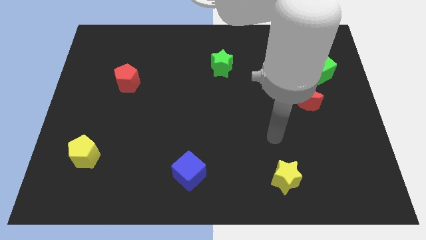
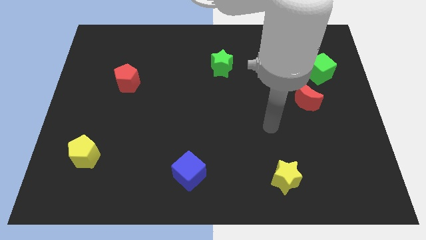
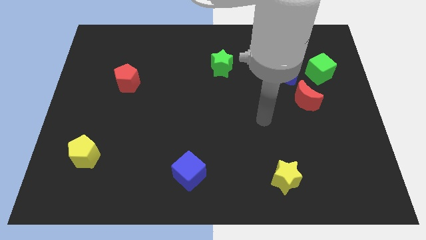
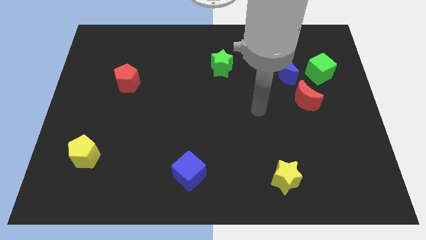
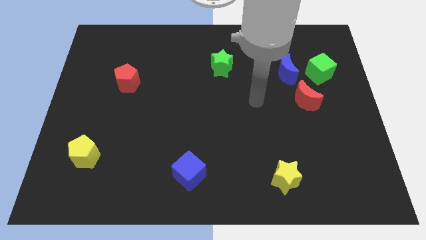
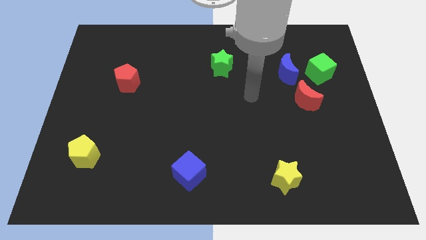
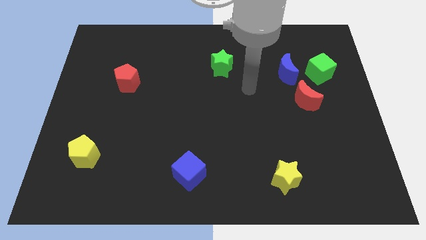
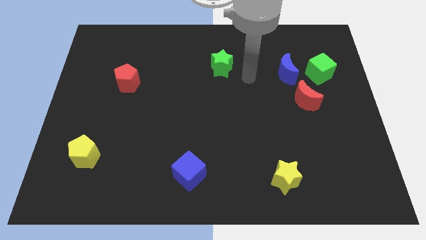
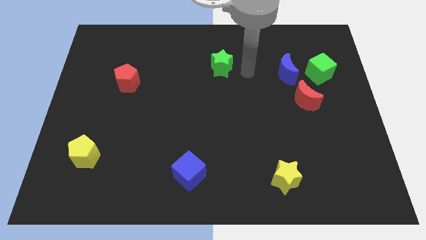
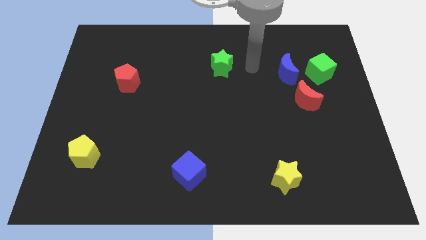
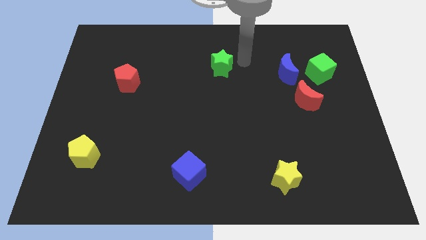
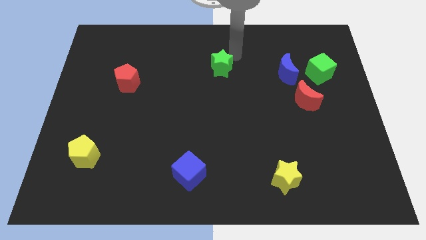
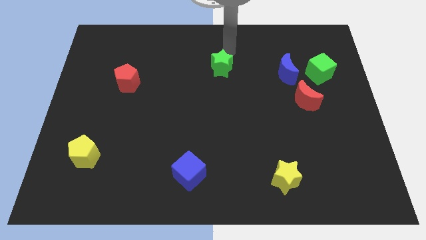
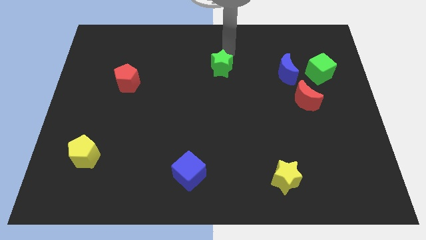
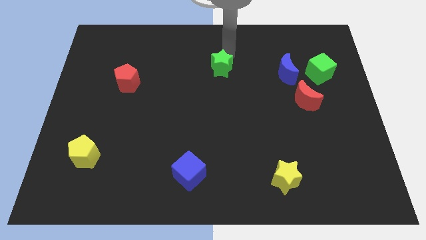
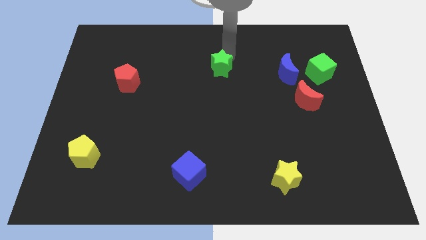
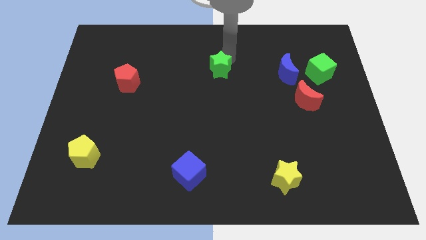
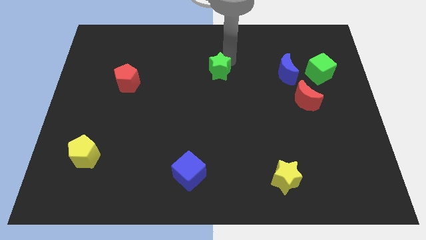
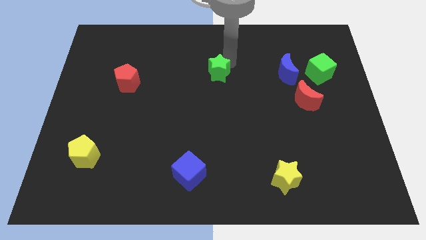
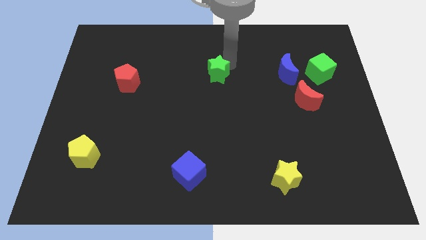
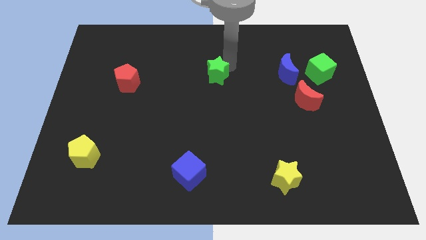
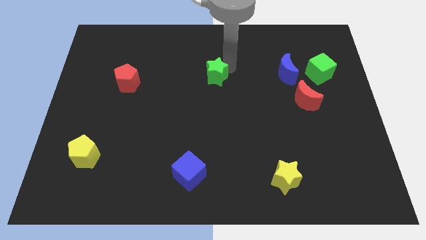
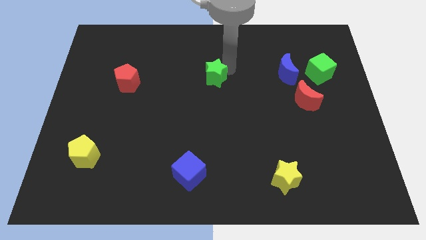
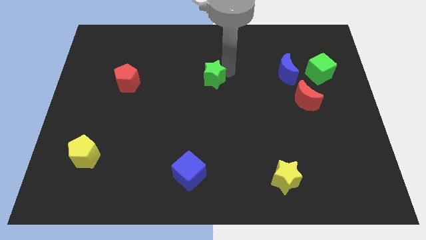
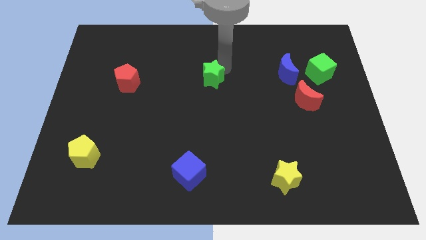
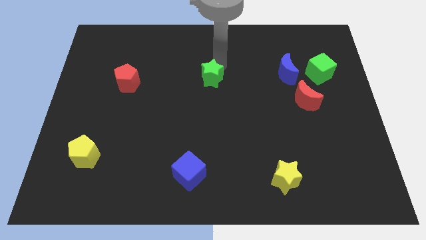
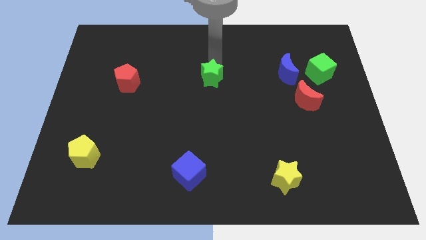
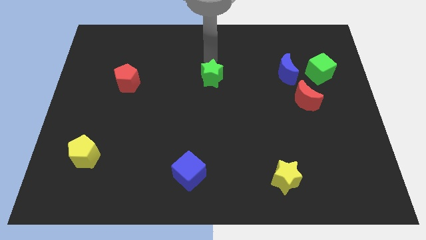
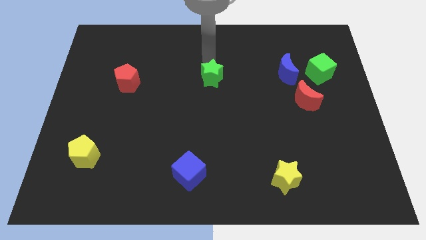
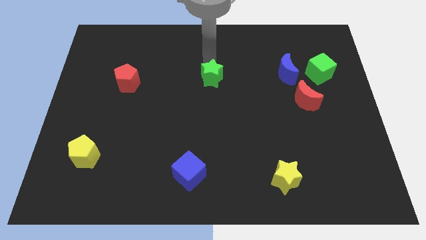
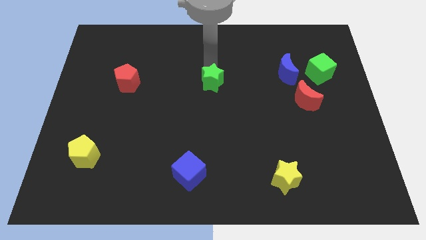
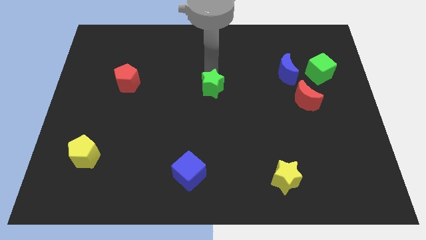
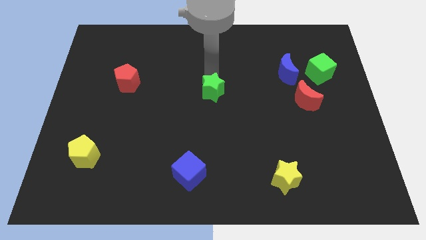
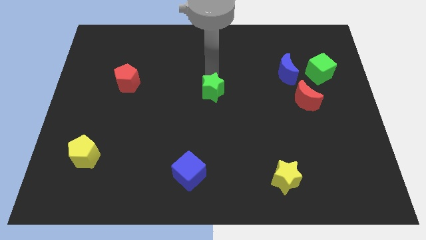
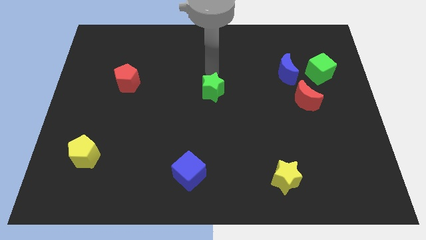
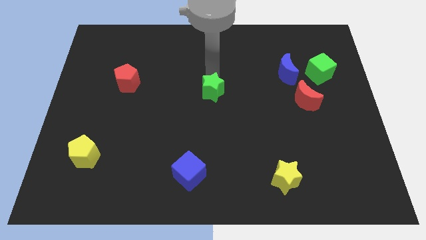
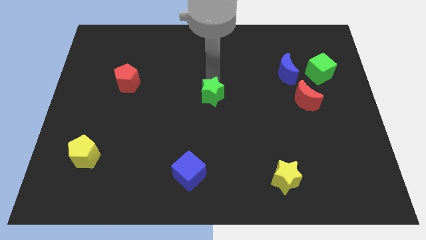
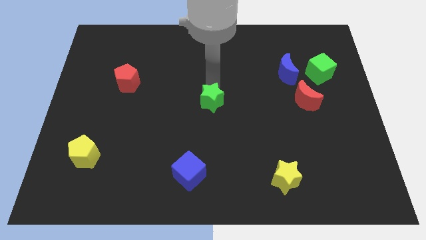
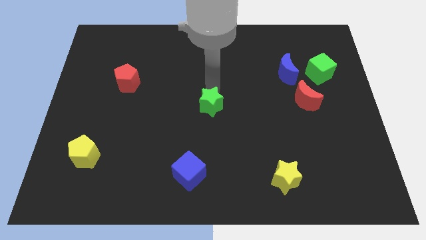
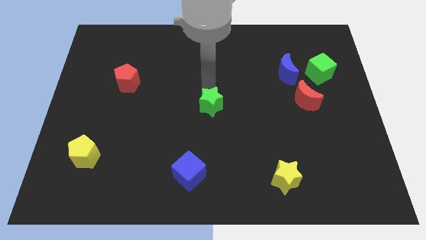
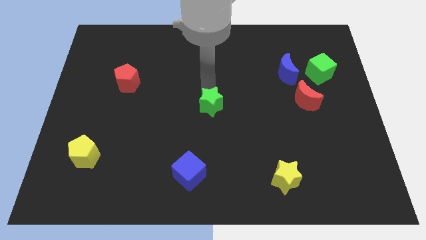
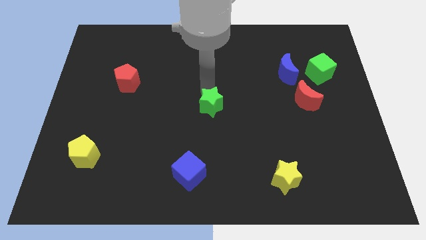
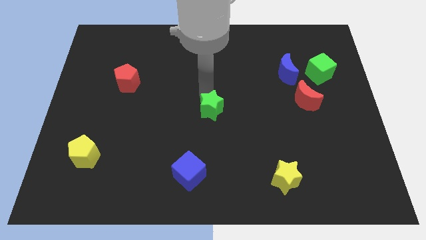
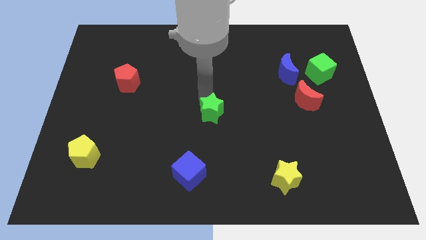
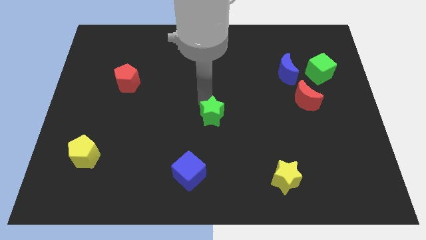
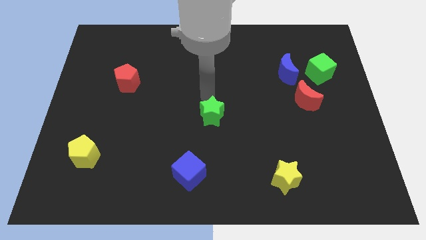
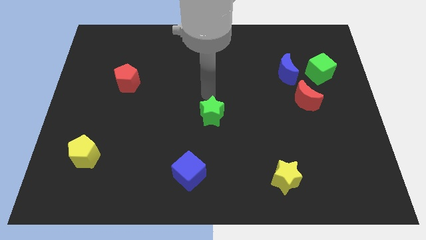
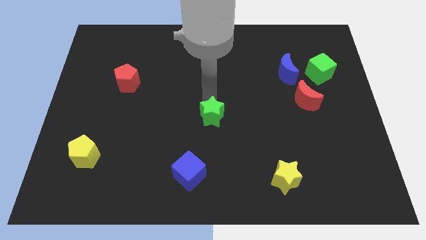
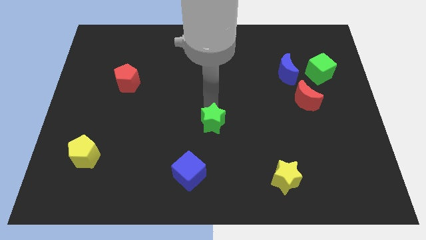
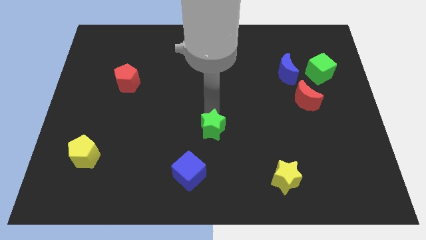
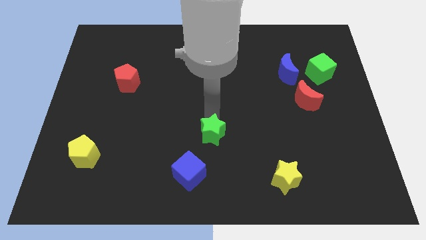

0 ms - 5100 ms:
slide the green star downwards

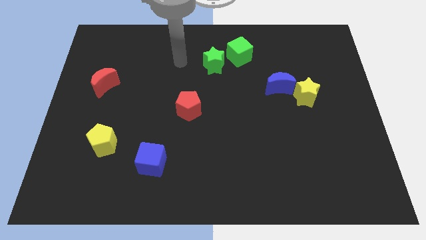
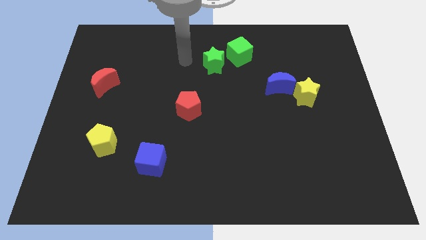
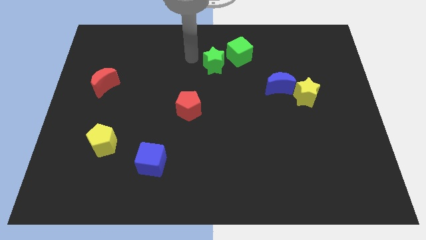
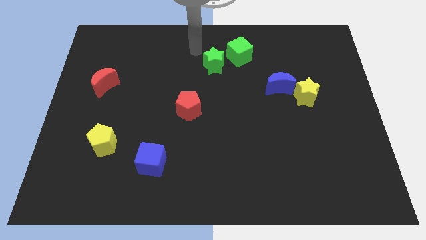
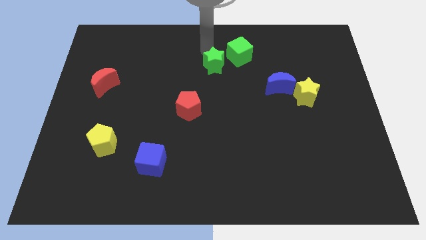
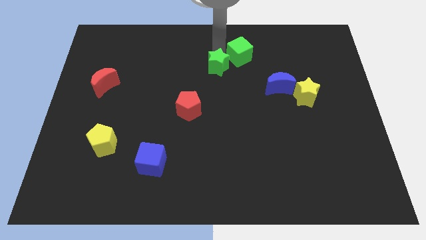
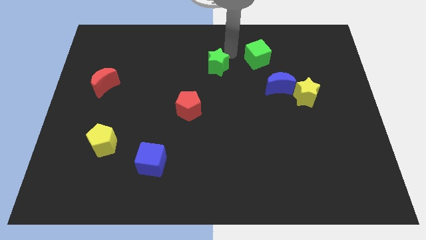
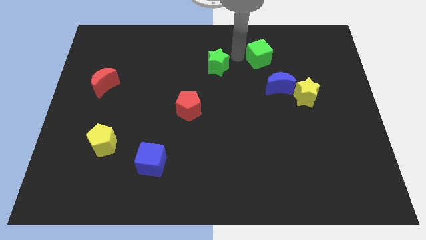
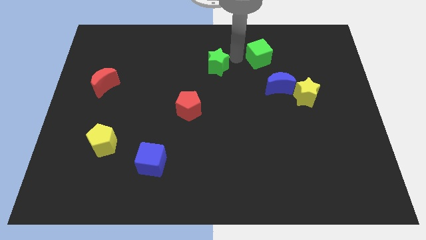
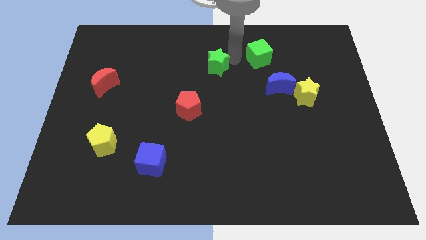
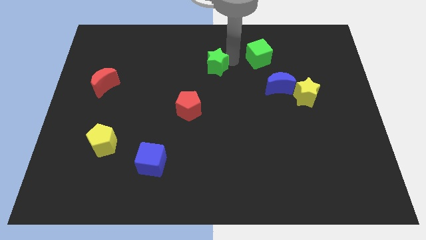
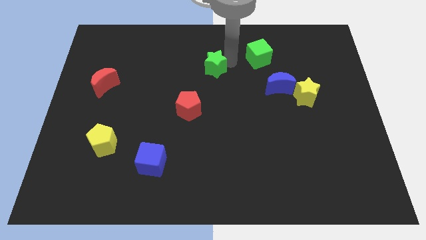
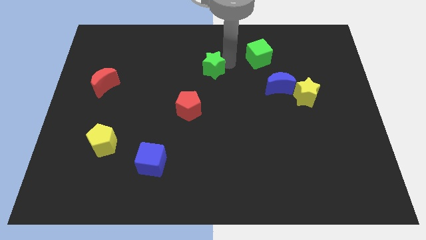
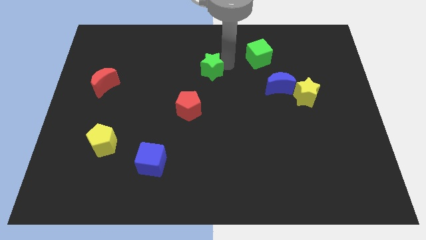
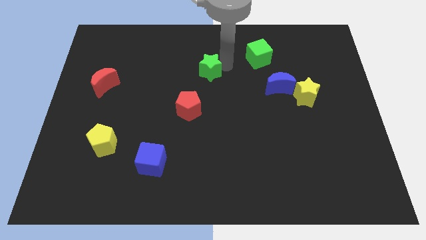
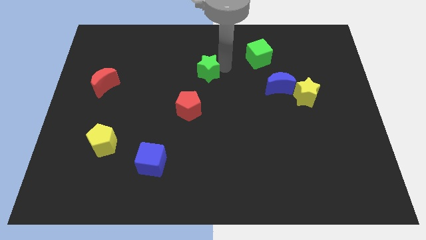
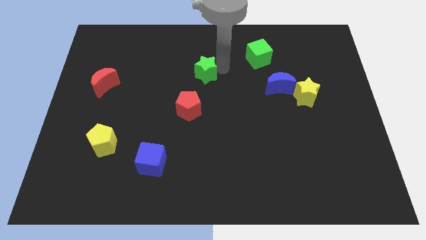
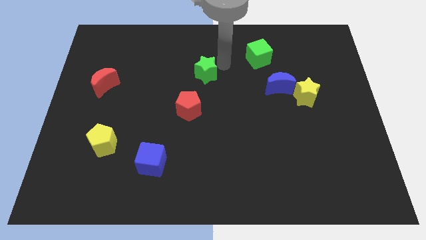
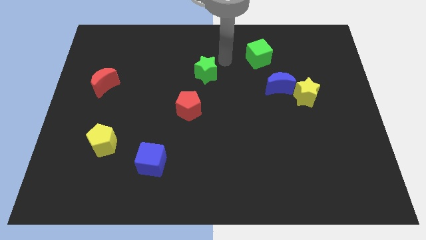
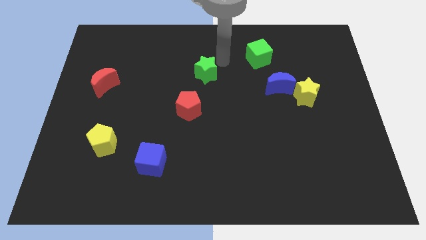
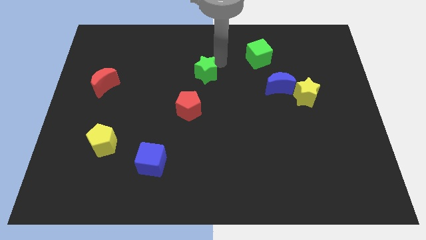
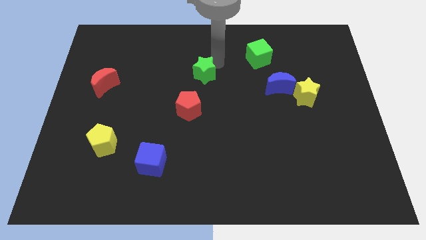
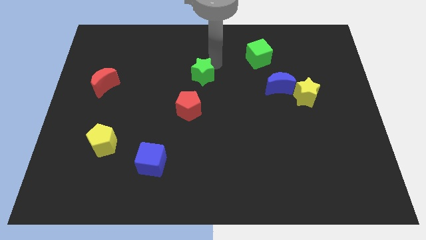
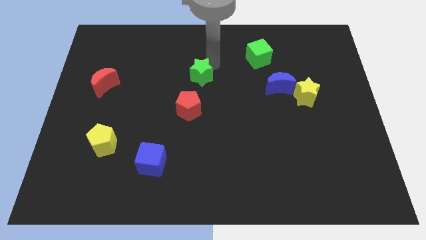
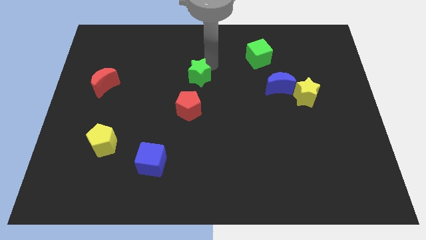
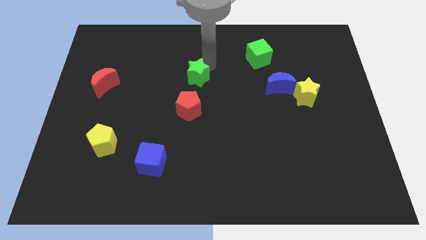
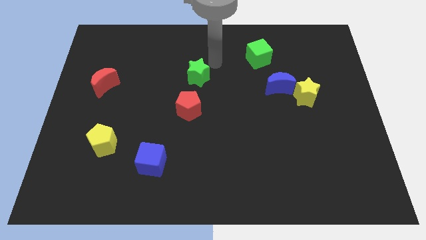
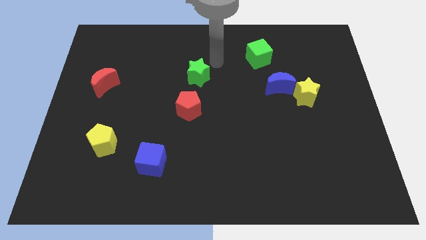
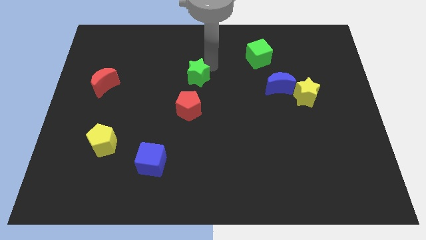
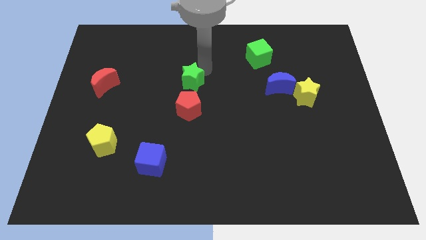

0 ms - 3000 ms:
slightly move the green star downwards and left

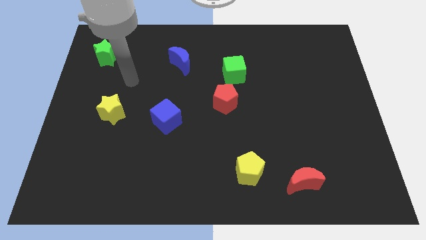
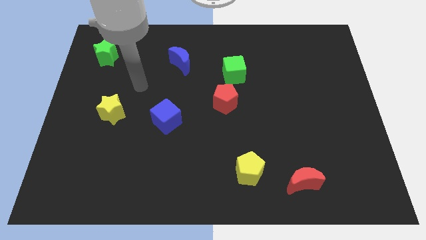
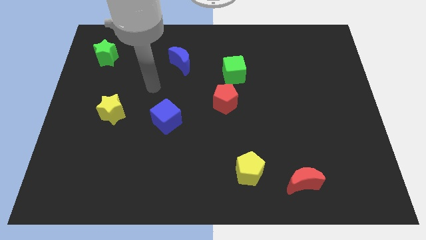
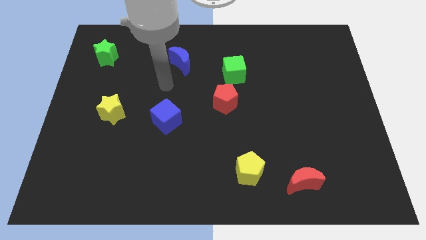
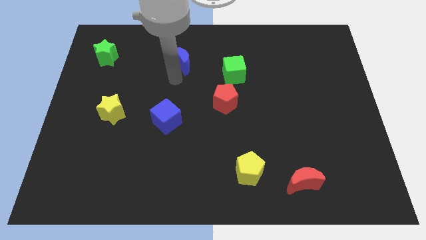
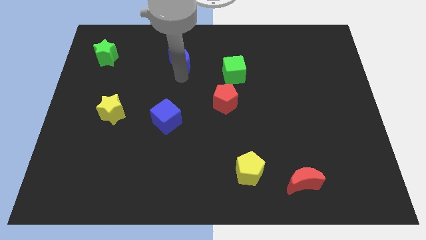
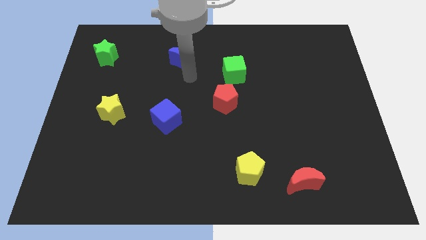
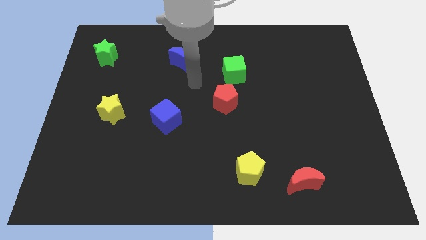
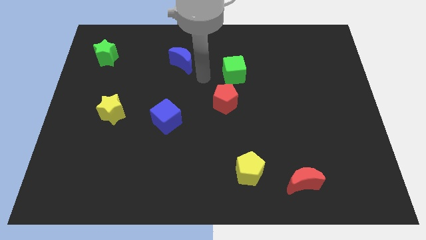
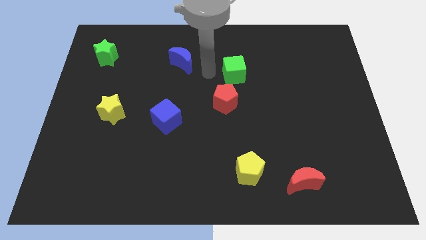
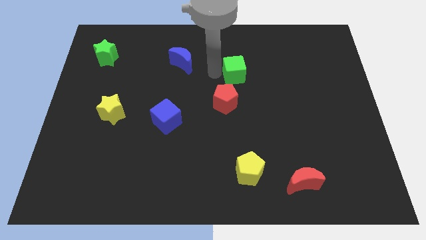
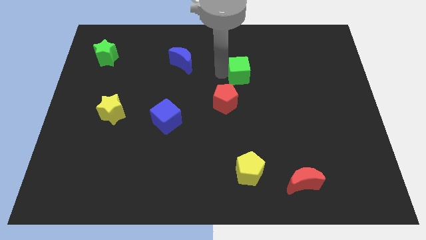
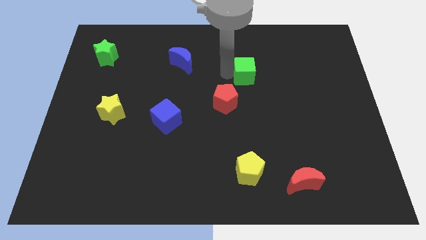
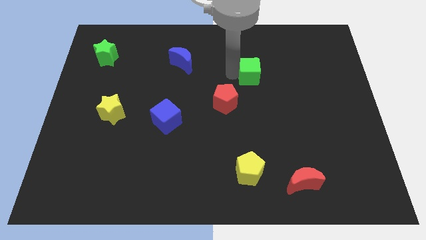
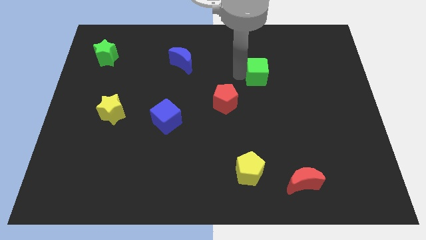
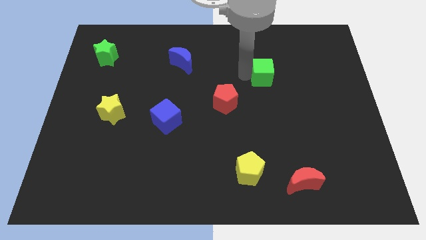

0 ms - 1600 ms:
push the green cube a little to the right
